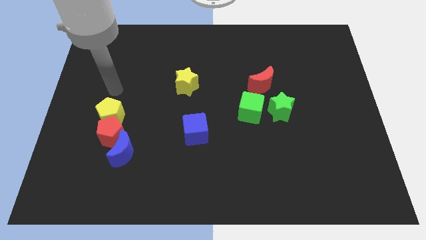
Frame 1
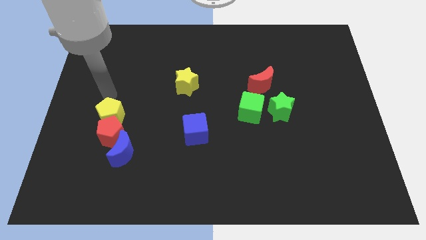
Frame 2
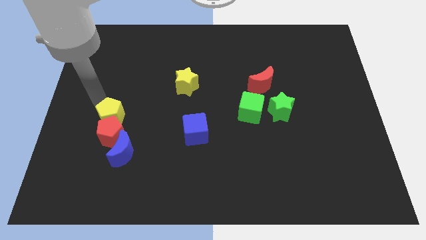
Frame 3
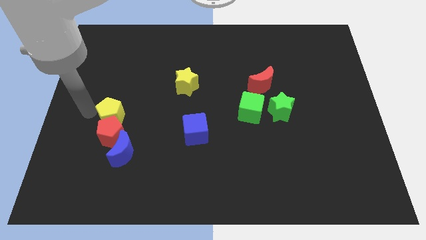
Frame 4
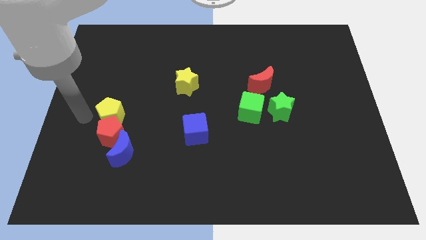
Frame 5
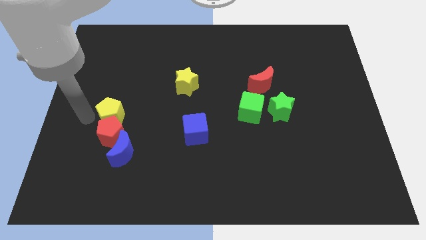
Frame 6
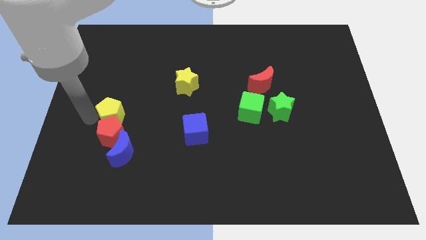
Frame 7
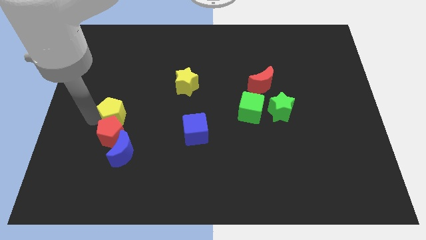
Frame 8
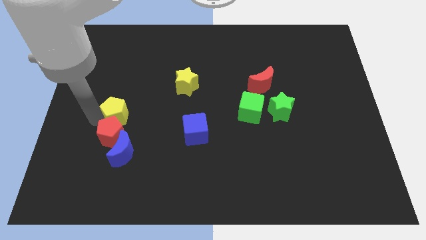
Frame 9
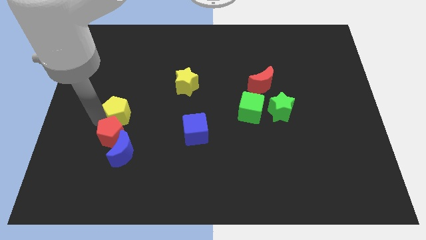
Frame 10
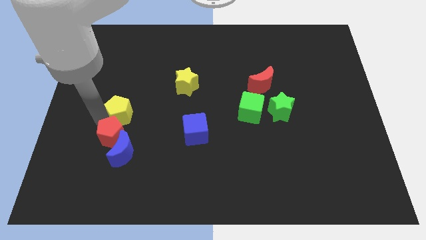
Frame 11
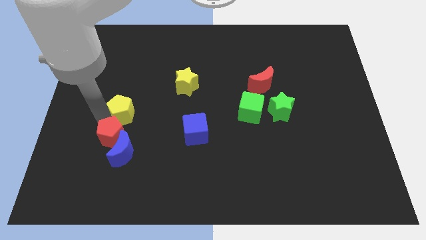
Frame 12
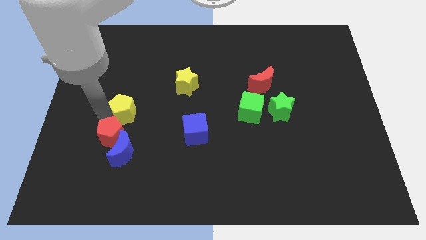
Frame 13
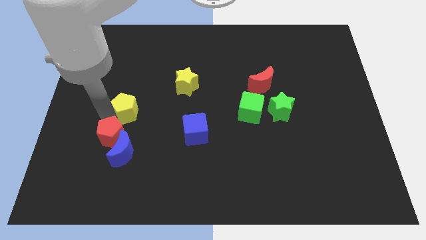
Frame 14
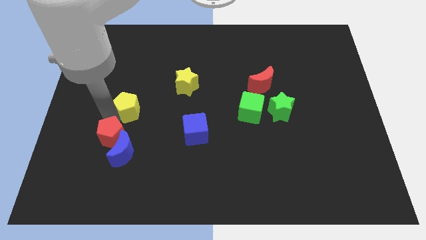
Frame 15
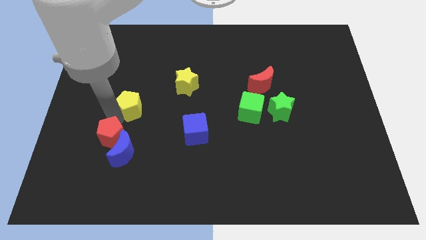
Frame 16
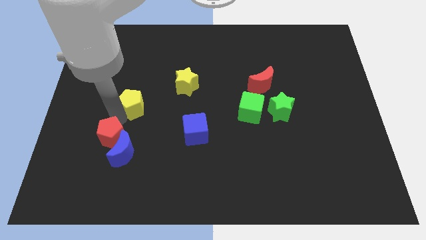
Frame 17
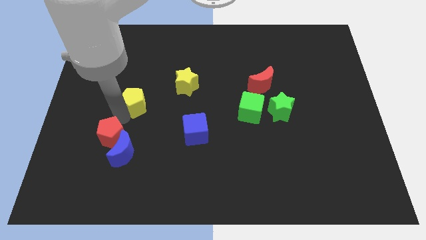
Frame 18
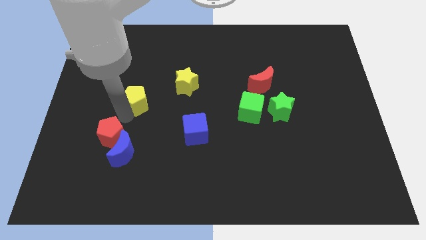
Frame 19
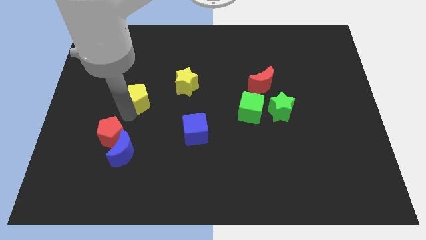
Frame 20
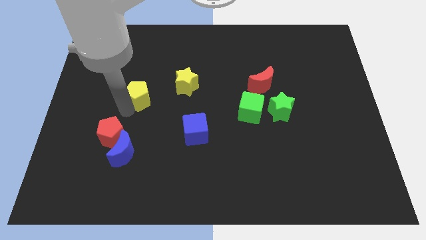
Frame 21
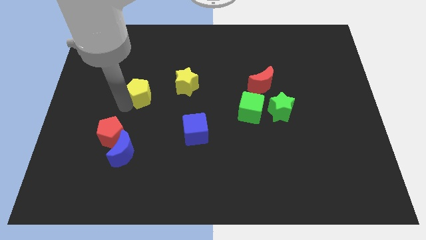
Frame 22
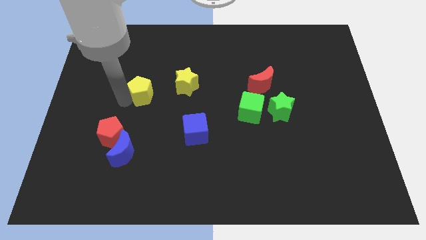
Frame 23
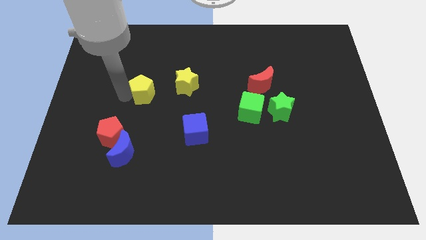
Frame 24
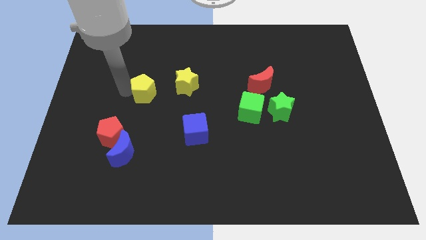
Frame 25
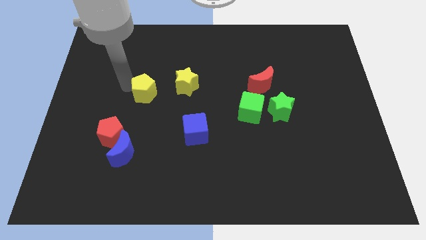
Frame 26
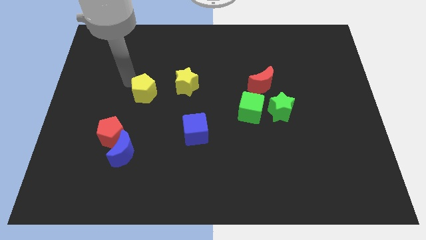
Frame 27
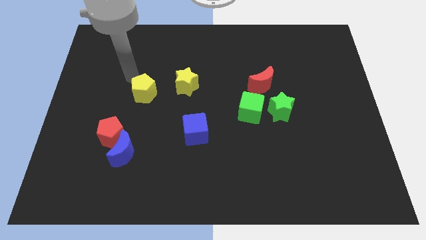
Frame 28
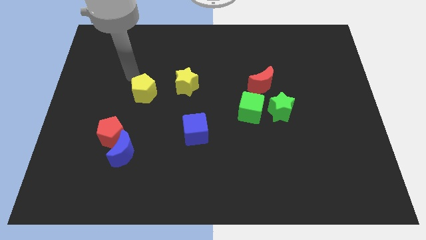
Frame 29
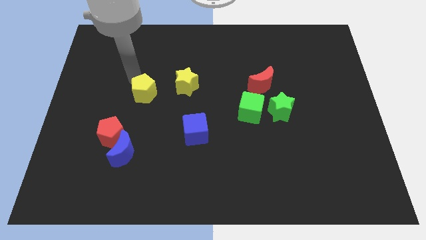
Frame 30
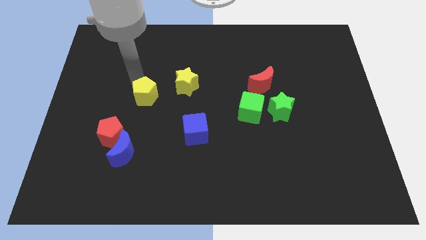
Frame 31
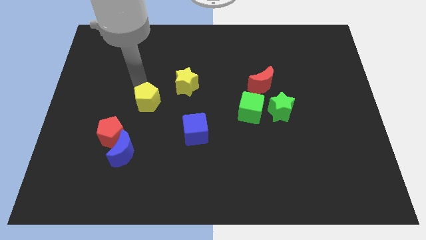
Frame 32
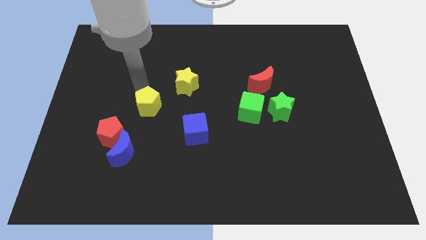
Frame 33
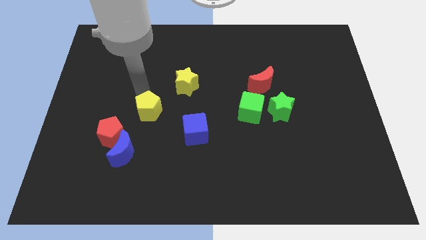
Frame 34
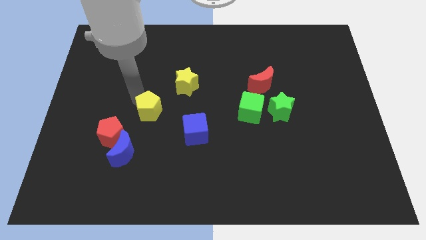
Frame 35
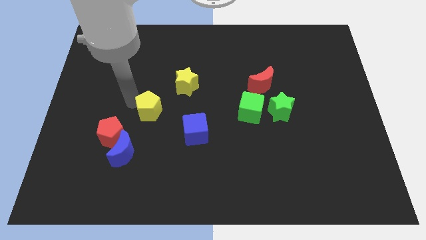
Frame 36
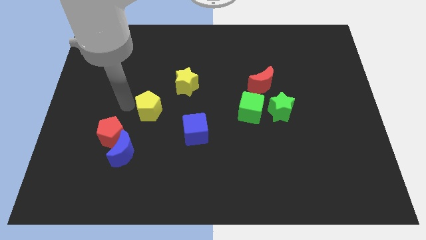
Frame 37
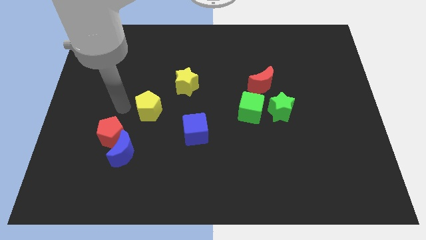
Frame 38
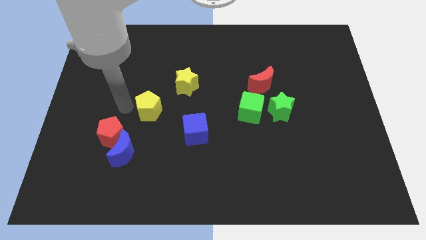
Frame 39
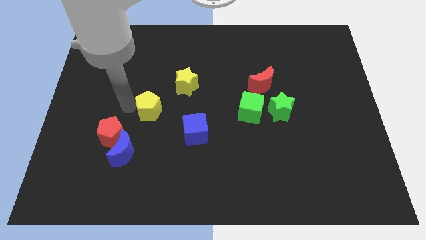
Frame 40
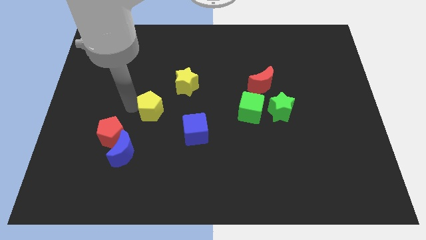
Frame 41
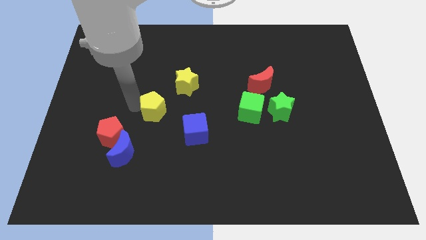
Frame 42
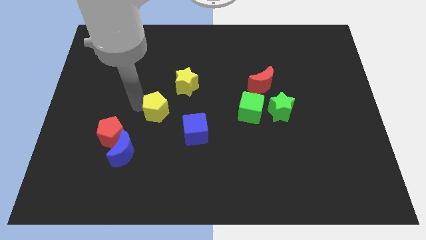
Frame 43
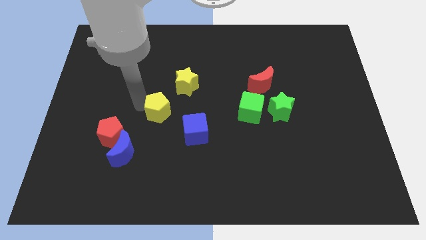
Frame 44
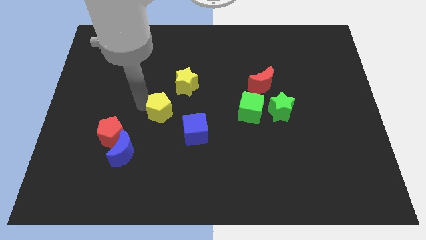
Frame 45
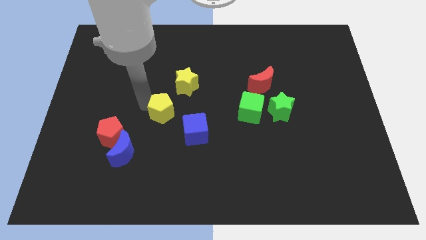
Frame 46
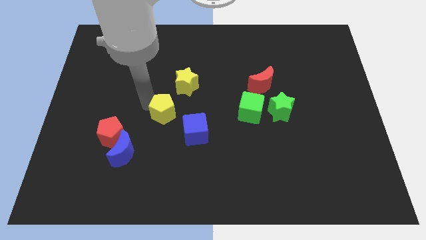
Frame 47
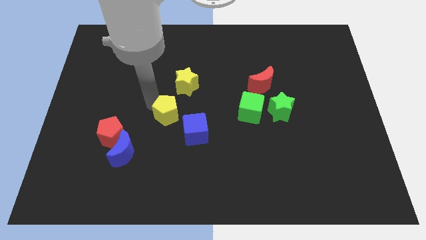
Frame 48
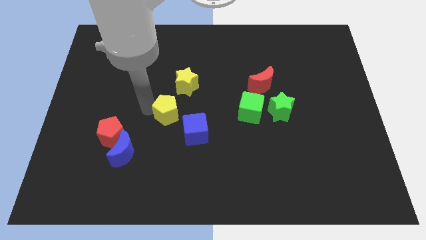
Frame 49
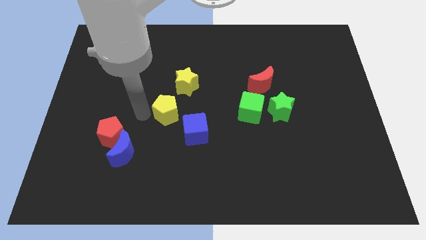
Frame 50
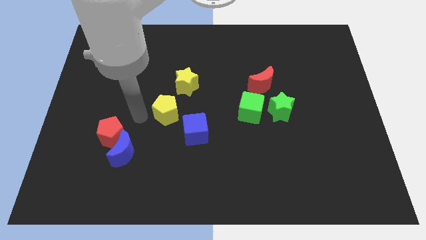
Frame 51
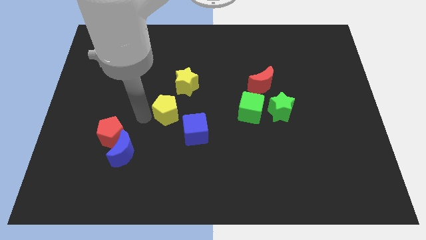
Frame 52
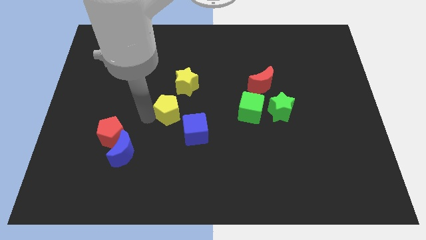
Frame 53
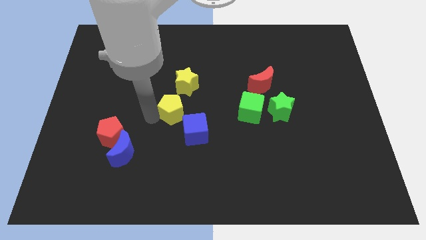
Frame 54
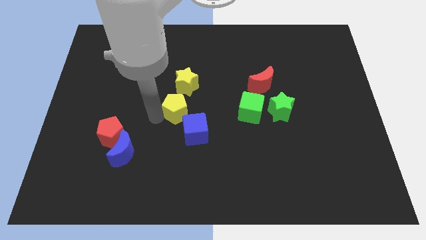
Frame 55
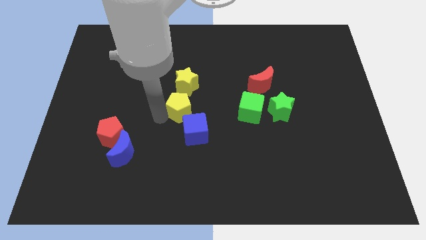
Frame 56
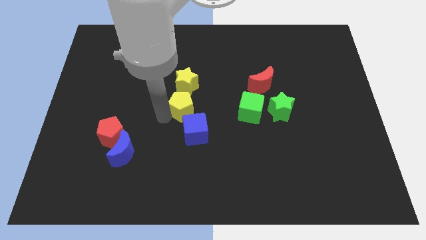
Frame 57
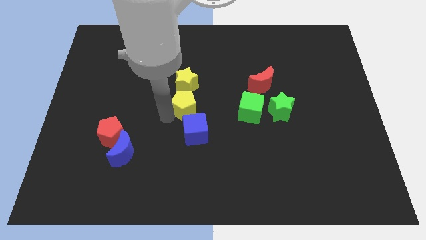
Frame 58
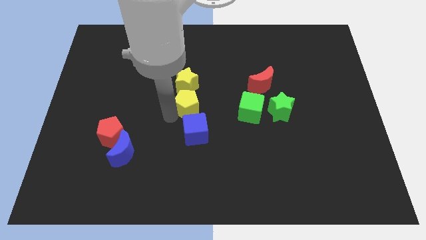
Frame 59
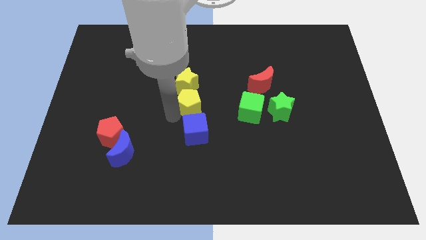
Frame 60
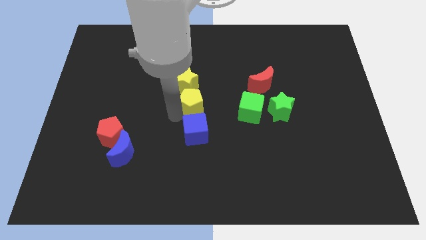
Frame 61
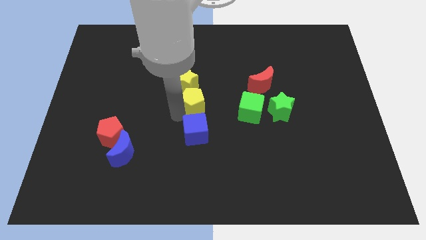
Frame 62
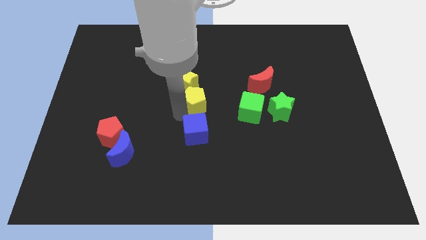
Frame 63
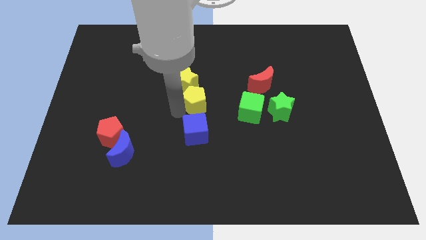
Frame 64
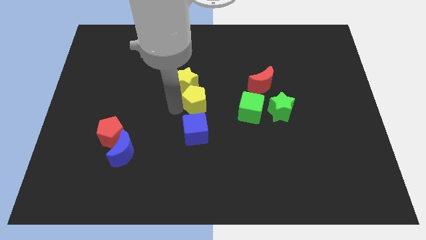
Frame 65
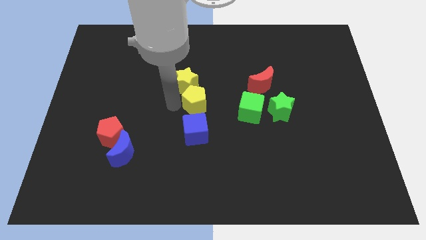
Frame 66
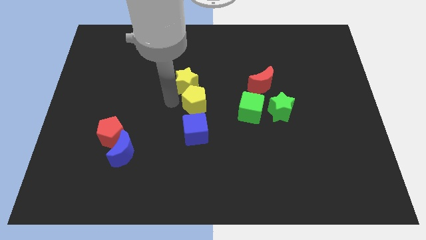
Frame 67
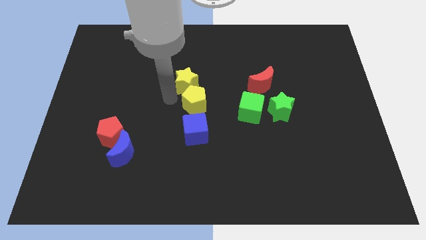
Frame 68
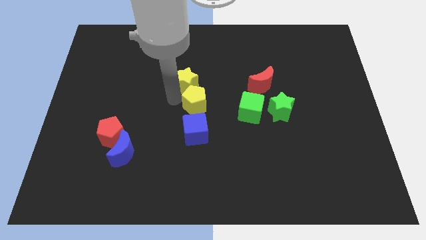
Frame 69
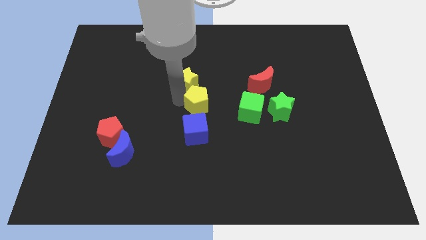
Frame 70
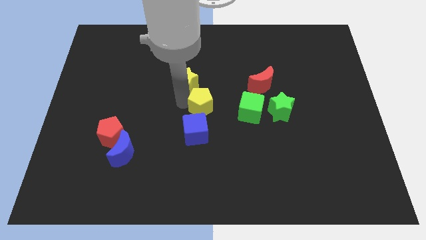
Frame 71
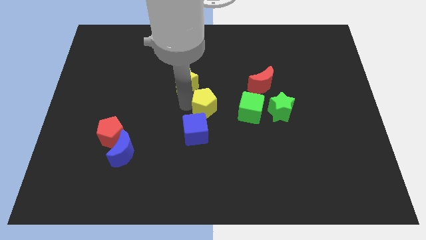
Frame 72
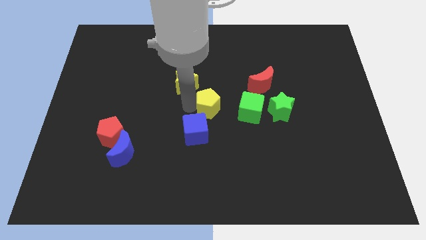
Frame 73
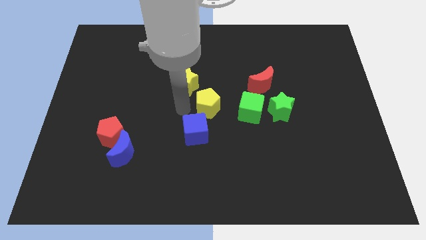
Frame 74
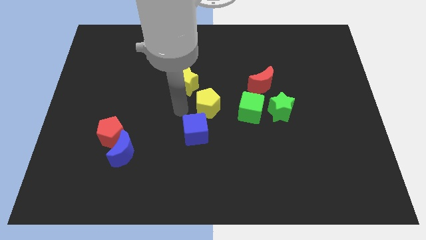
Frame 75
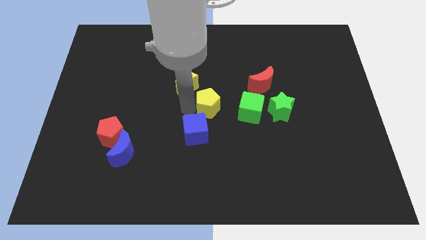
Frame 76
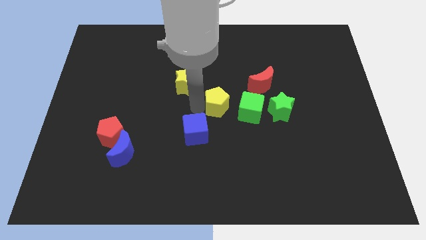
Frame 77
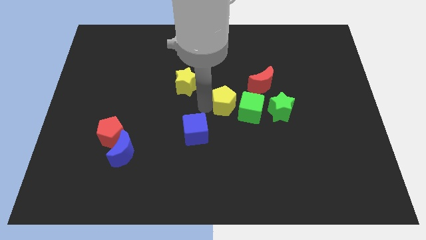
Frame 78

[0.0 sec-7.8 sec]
push the yellow pentagon to the bottom left of the red moon
